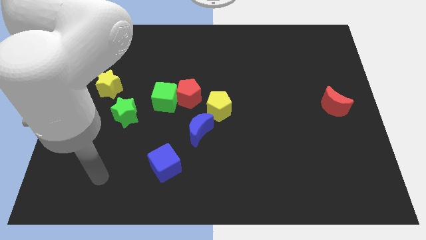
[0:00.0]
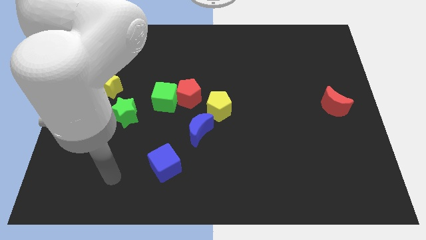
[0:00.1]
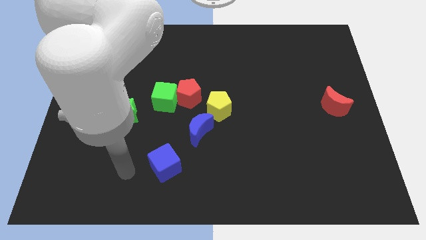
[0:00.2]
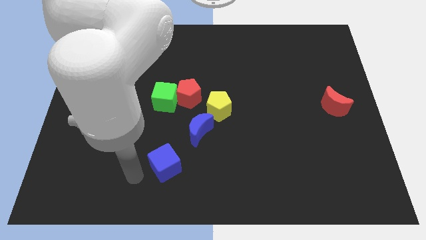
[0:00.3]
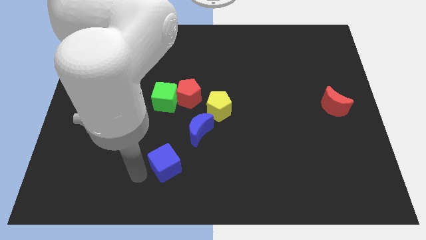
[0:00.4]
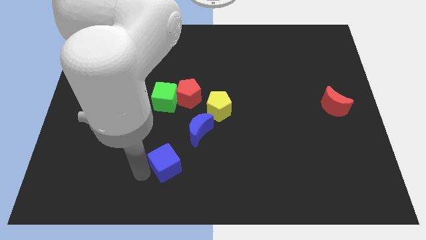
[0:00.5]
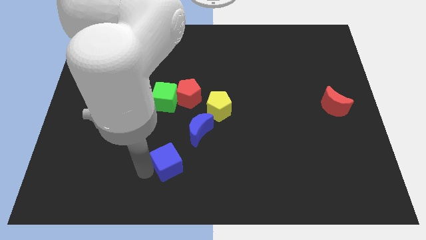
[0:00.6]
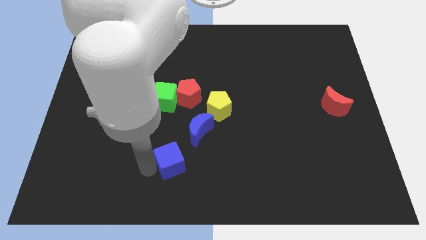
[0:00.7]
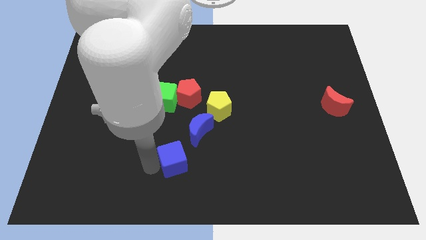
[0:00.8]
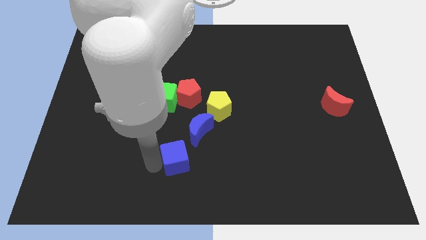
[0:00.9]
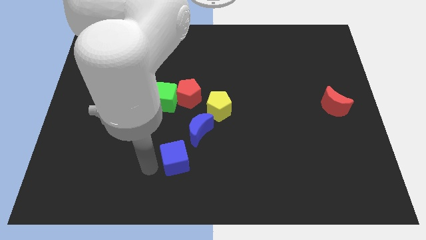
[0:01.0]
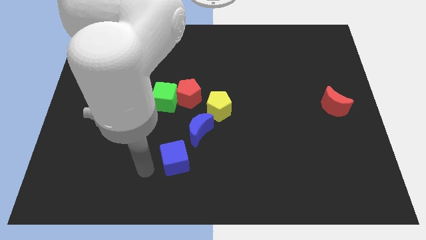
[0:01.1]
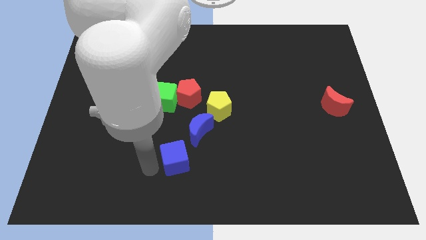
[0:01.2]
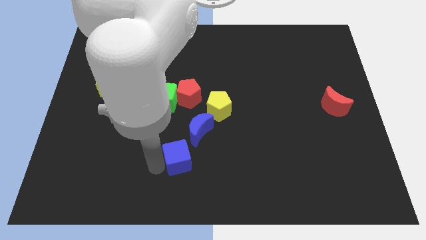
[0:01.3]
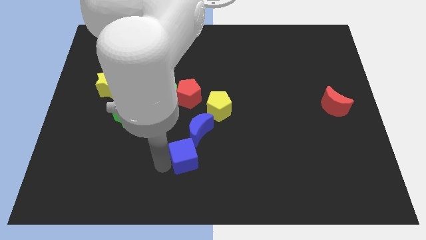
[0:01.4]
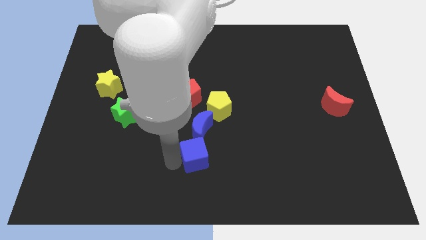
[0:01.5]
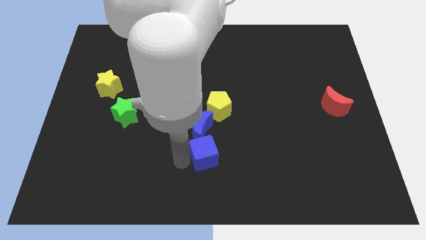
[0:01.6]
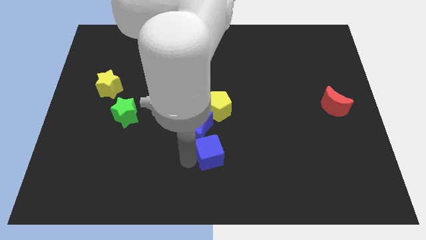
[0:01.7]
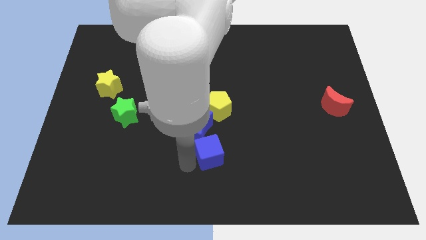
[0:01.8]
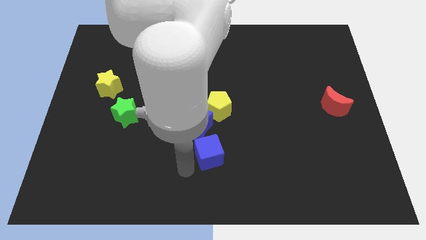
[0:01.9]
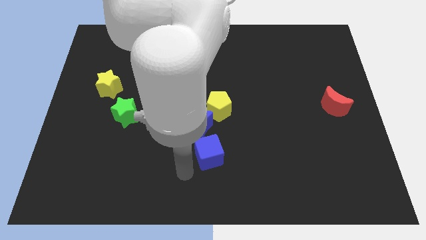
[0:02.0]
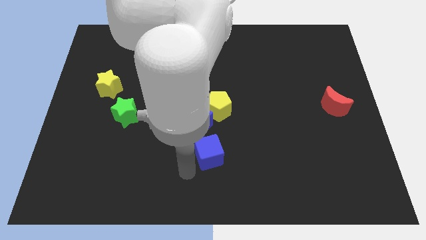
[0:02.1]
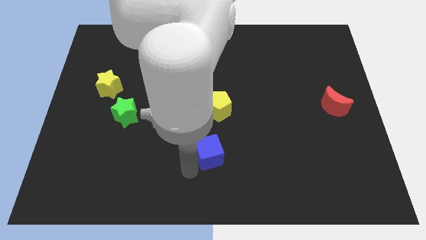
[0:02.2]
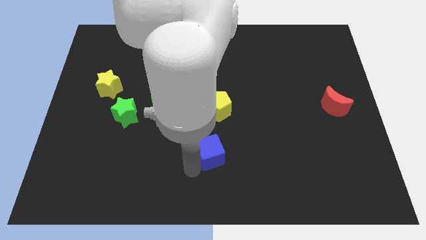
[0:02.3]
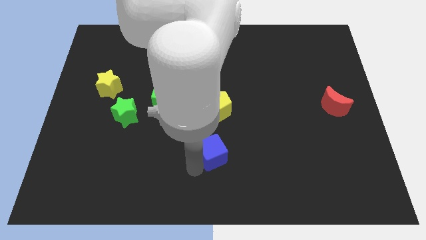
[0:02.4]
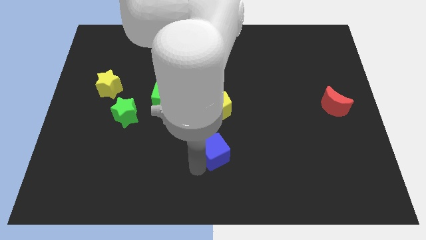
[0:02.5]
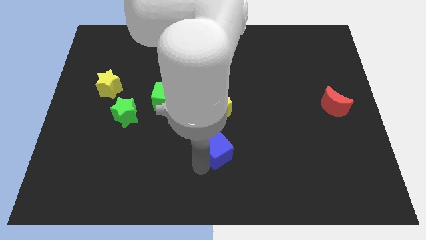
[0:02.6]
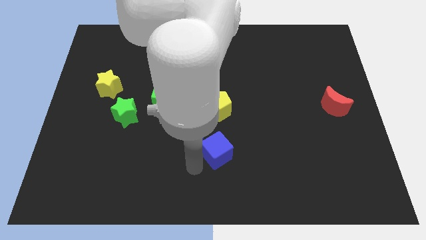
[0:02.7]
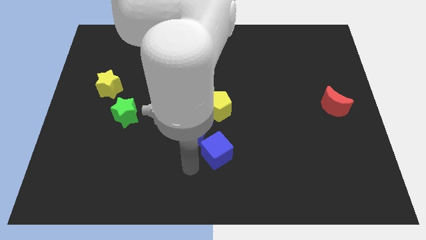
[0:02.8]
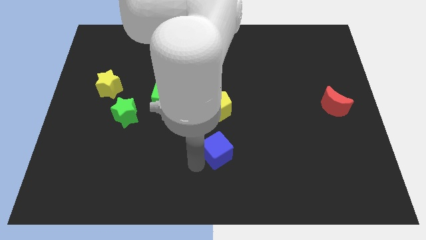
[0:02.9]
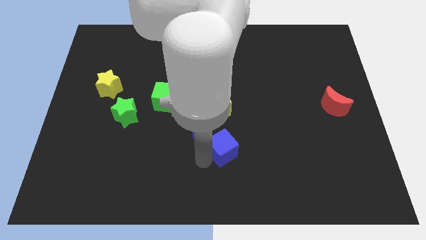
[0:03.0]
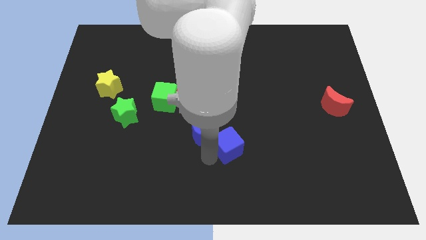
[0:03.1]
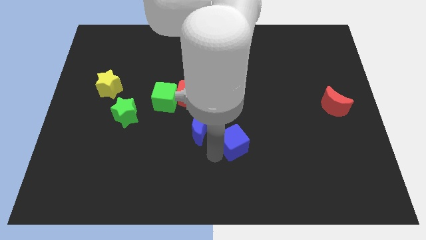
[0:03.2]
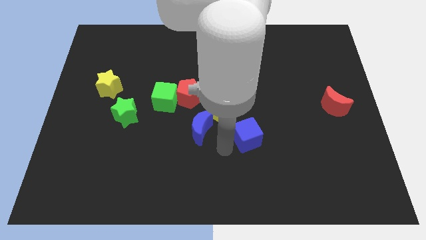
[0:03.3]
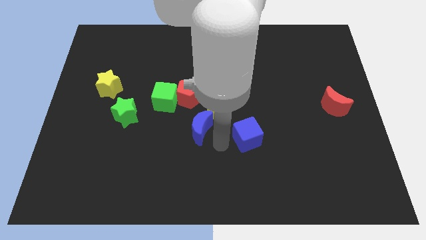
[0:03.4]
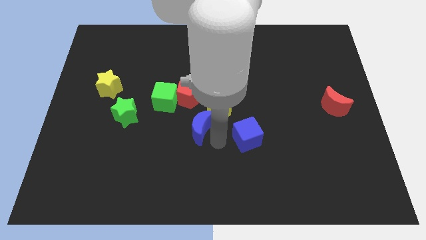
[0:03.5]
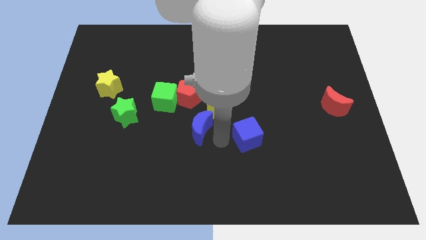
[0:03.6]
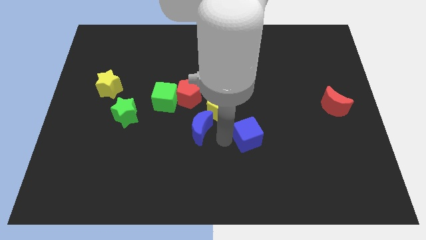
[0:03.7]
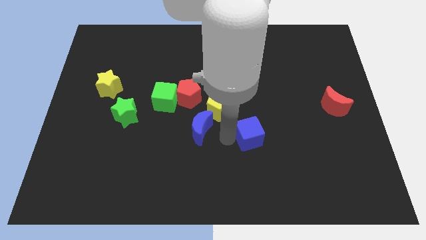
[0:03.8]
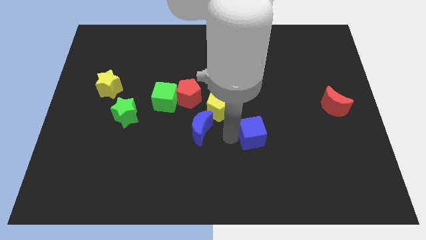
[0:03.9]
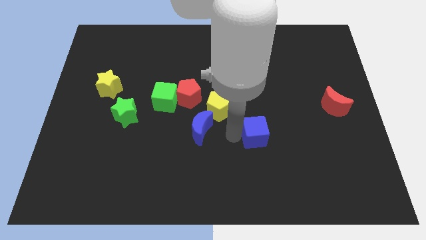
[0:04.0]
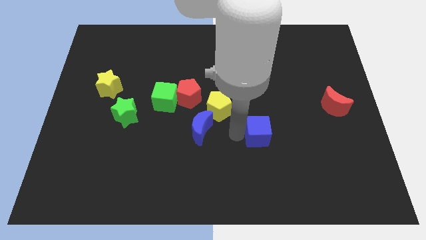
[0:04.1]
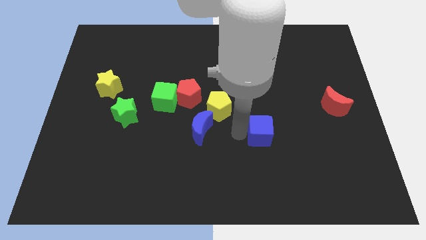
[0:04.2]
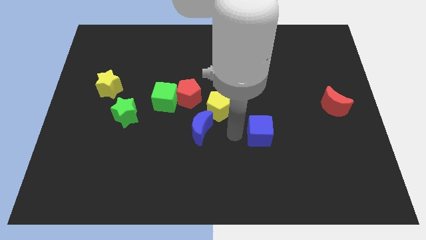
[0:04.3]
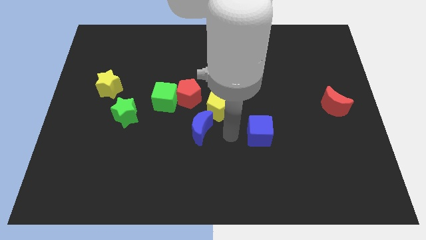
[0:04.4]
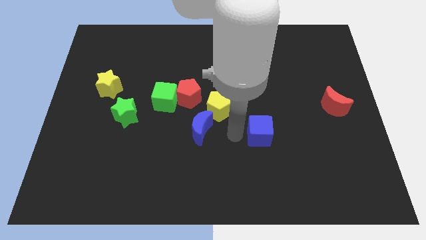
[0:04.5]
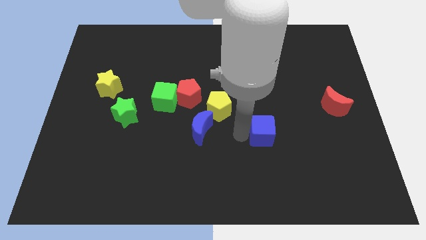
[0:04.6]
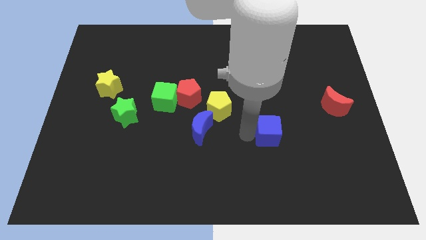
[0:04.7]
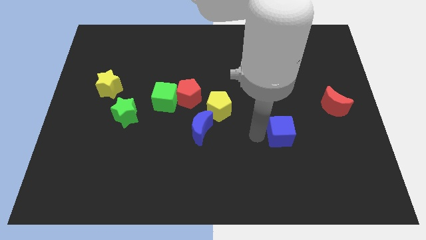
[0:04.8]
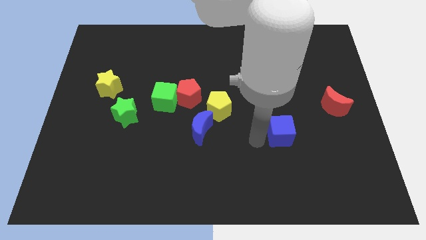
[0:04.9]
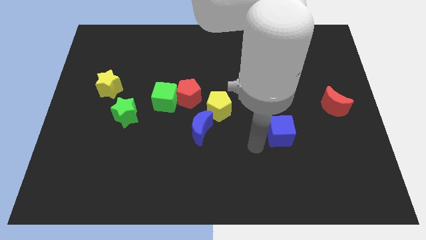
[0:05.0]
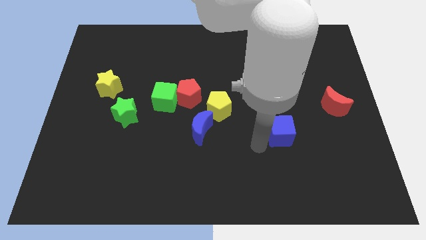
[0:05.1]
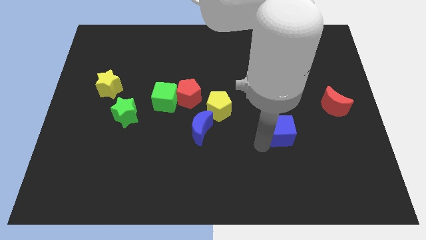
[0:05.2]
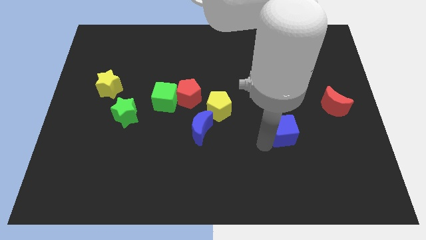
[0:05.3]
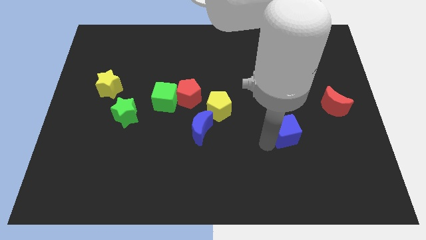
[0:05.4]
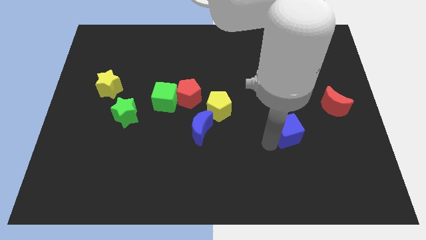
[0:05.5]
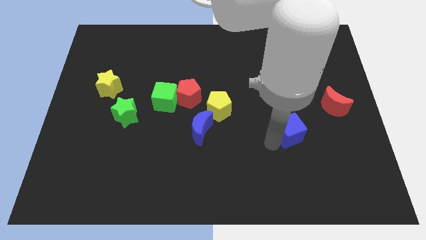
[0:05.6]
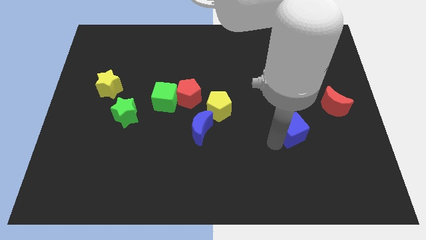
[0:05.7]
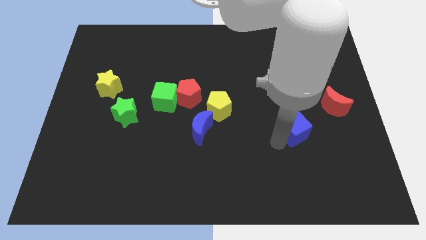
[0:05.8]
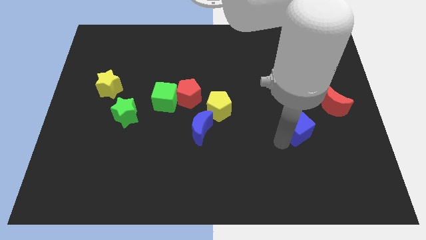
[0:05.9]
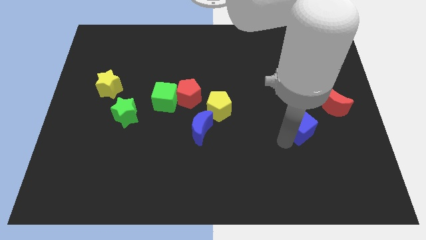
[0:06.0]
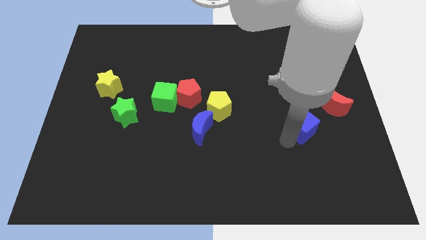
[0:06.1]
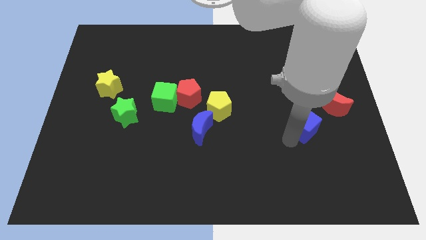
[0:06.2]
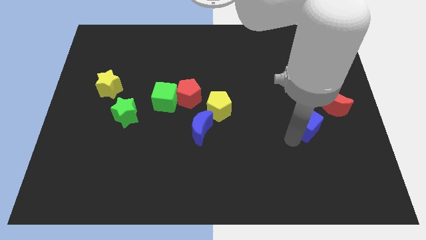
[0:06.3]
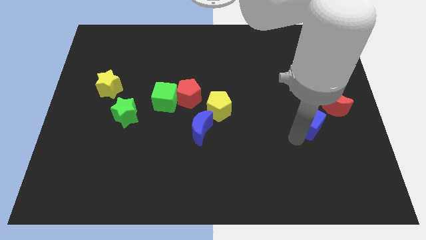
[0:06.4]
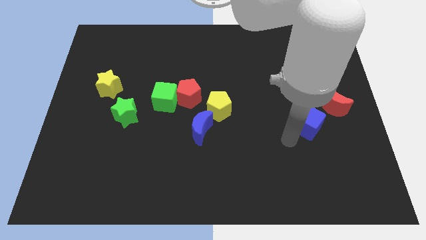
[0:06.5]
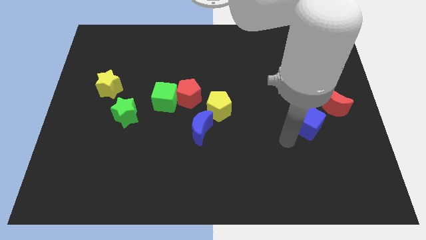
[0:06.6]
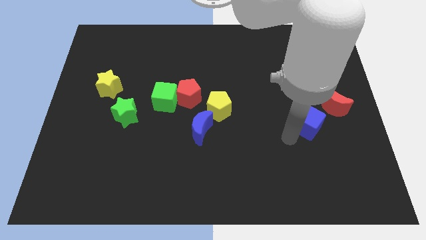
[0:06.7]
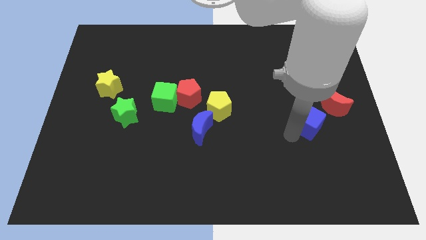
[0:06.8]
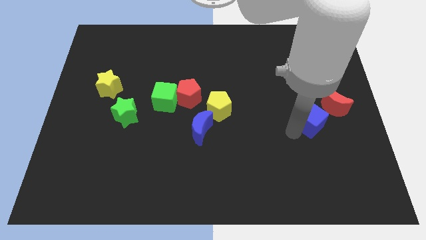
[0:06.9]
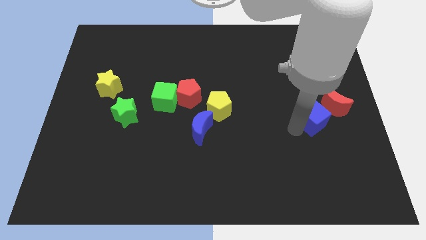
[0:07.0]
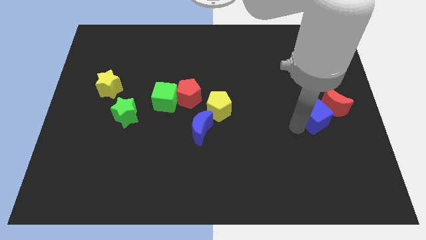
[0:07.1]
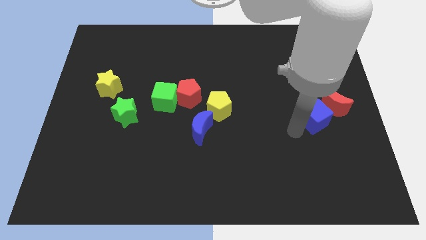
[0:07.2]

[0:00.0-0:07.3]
slide the blue cube next to the red moon
